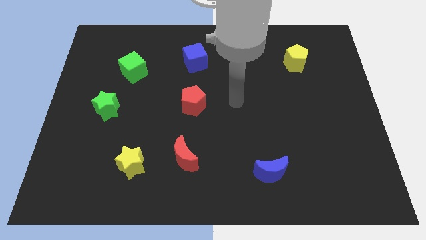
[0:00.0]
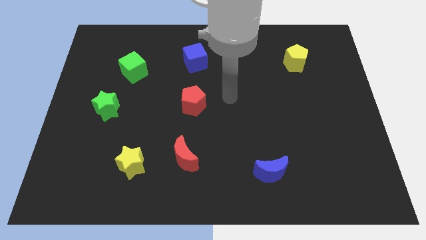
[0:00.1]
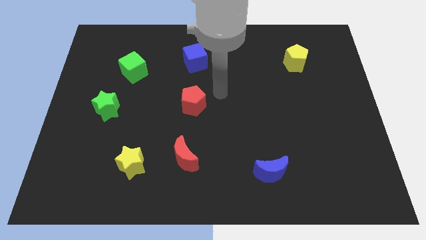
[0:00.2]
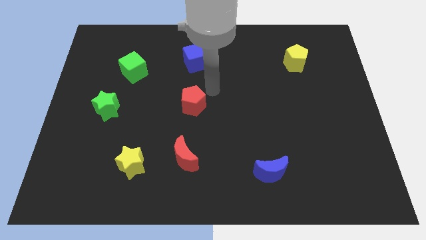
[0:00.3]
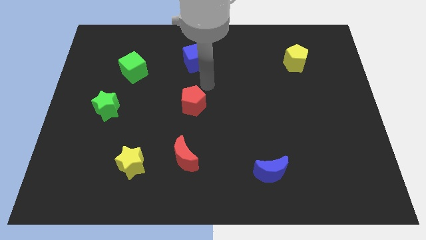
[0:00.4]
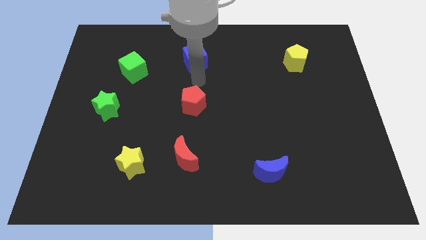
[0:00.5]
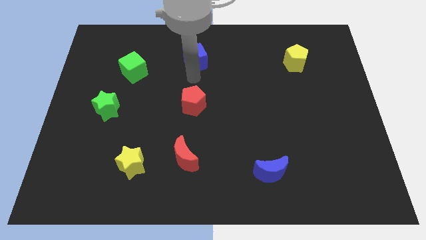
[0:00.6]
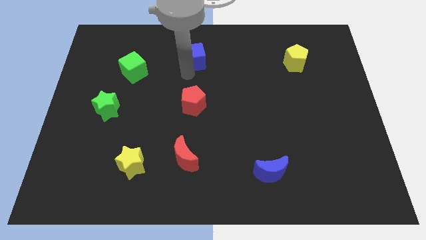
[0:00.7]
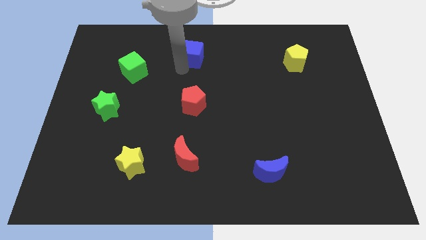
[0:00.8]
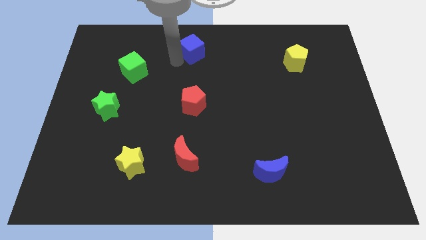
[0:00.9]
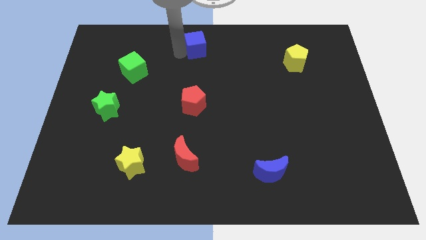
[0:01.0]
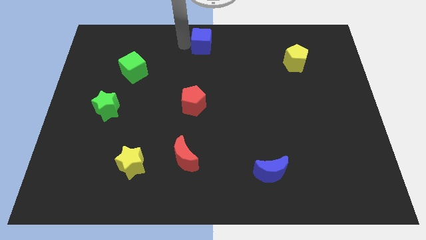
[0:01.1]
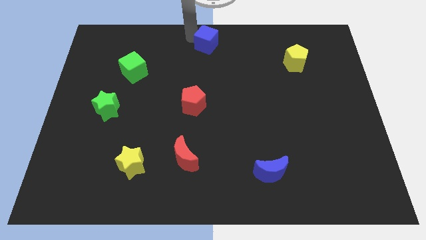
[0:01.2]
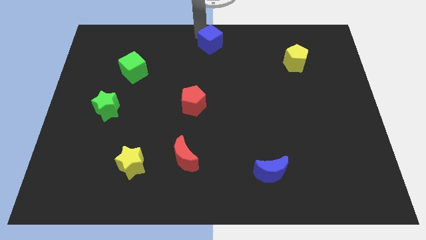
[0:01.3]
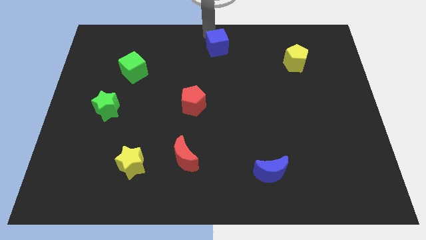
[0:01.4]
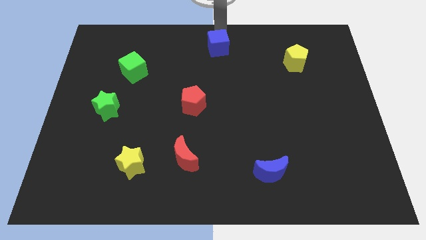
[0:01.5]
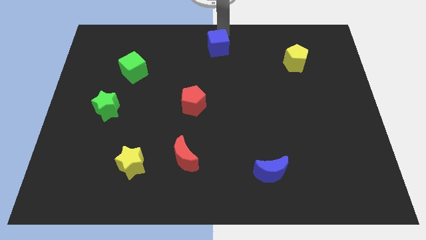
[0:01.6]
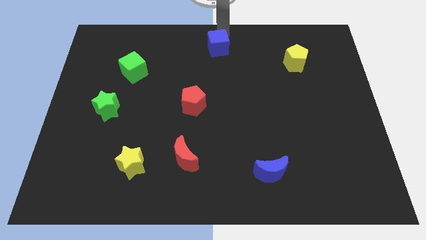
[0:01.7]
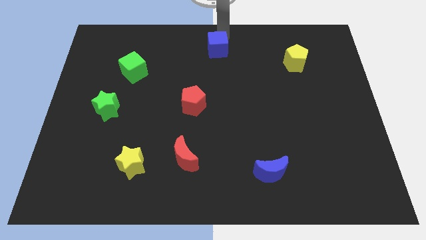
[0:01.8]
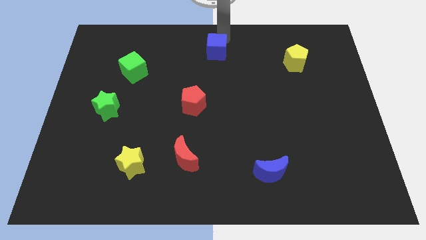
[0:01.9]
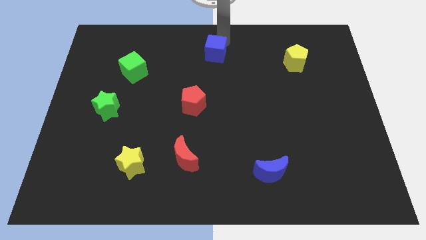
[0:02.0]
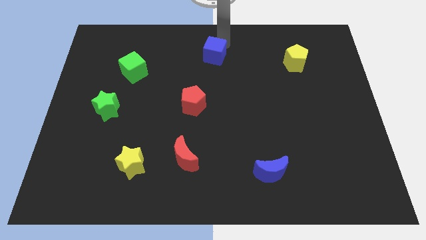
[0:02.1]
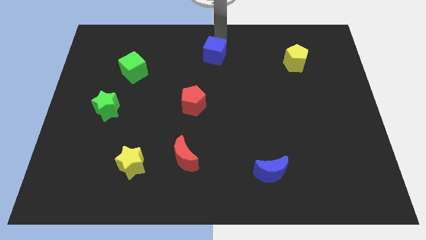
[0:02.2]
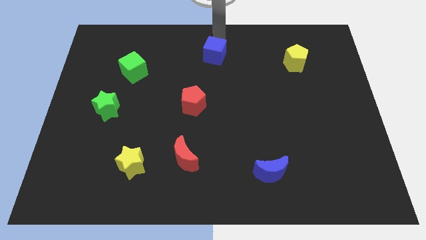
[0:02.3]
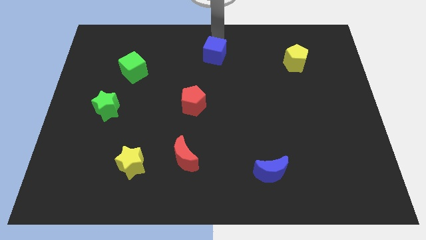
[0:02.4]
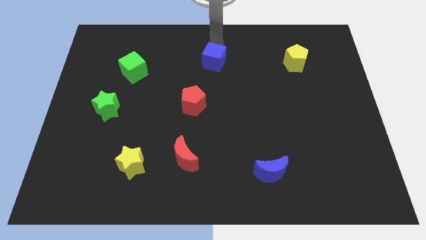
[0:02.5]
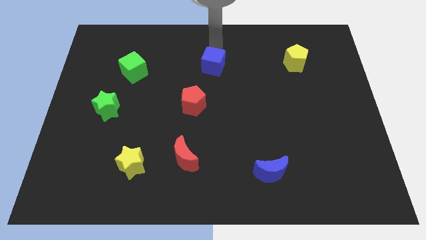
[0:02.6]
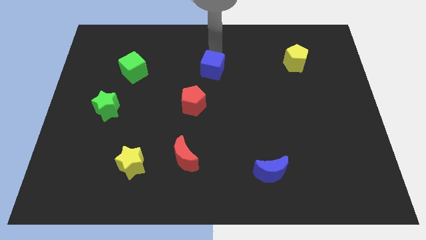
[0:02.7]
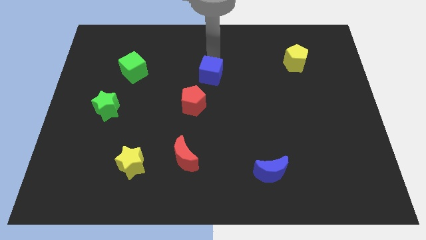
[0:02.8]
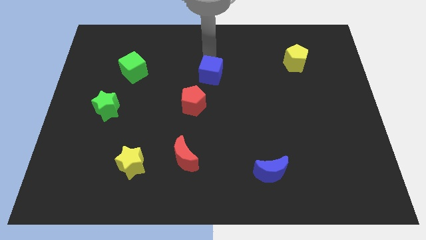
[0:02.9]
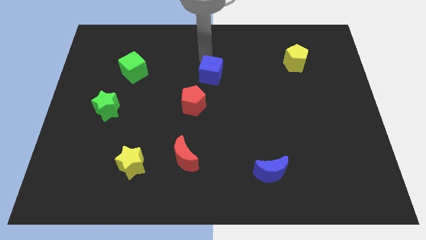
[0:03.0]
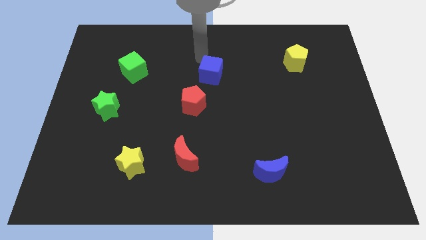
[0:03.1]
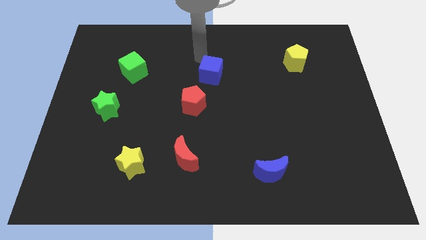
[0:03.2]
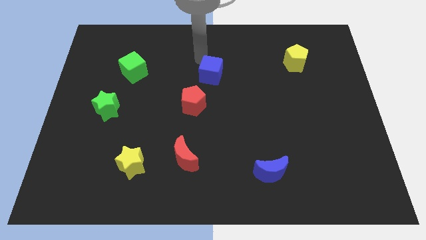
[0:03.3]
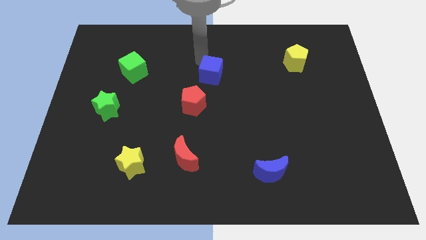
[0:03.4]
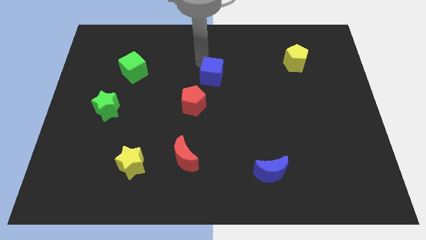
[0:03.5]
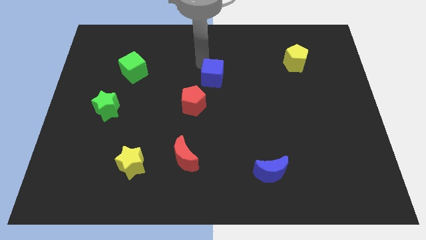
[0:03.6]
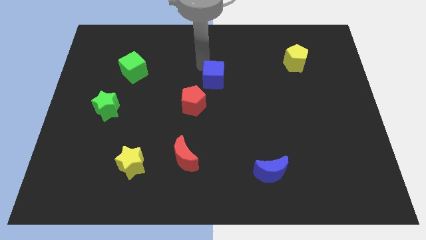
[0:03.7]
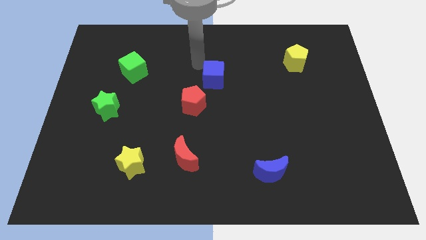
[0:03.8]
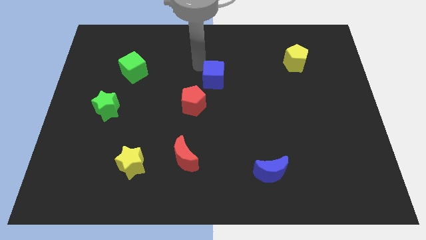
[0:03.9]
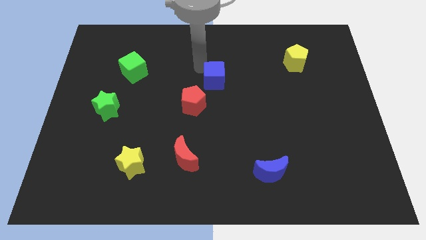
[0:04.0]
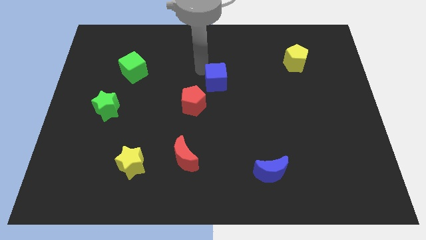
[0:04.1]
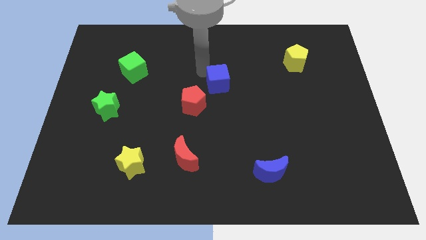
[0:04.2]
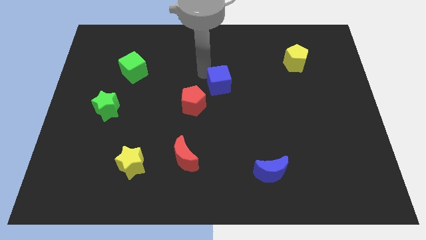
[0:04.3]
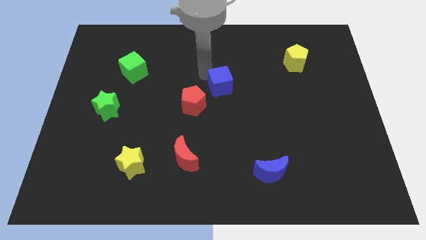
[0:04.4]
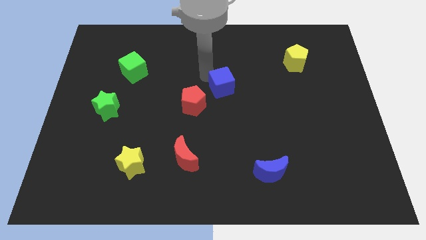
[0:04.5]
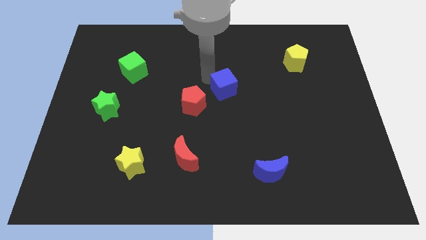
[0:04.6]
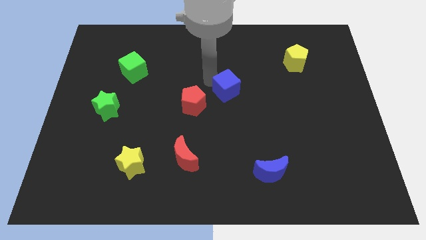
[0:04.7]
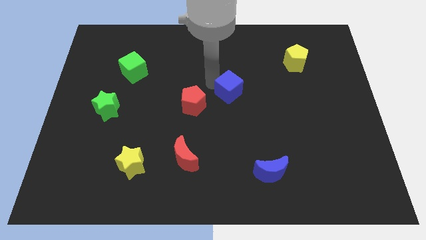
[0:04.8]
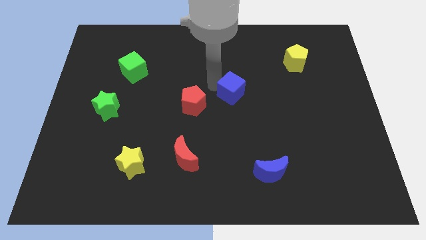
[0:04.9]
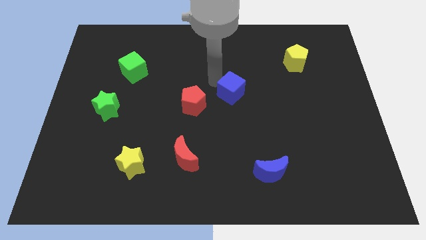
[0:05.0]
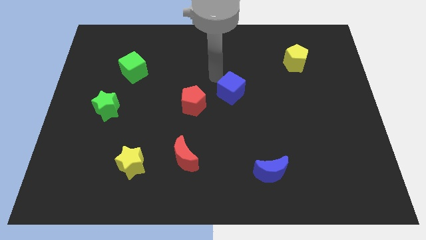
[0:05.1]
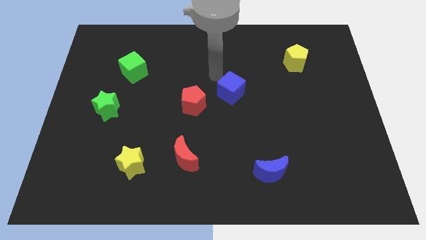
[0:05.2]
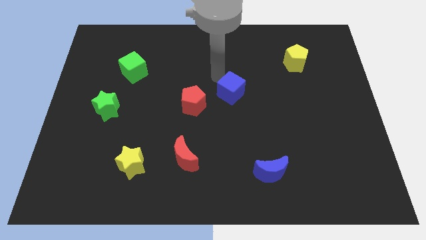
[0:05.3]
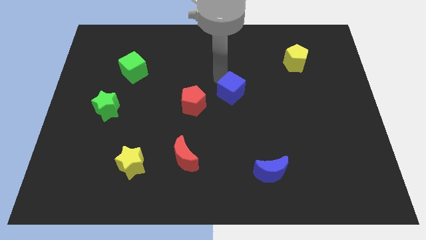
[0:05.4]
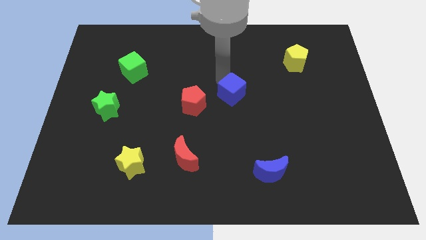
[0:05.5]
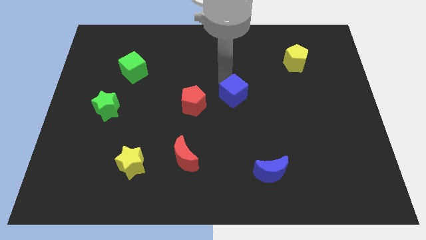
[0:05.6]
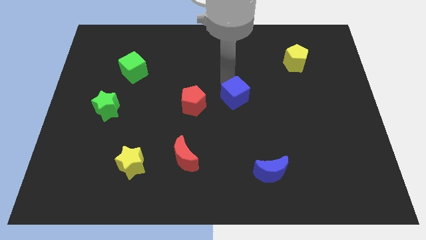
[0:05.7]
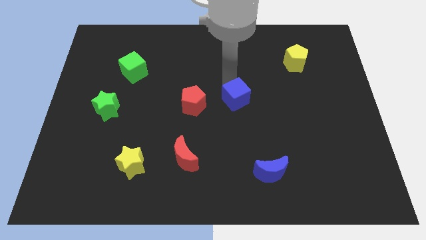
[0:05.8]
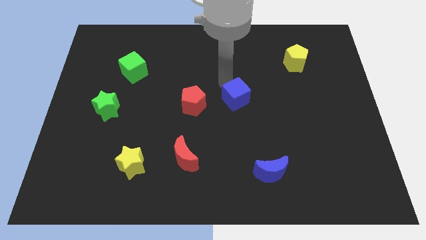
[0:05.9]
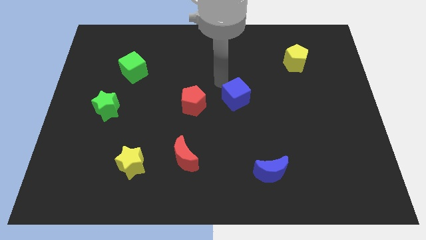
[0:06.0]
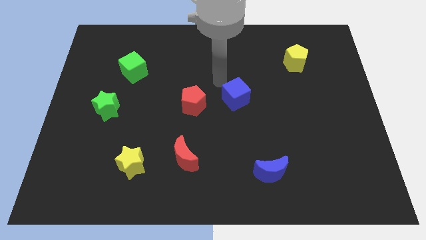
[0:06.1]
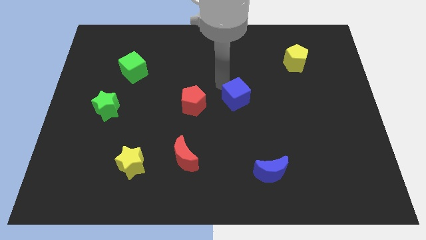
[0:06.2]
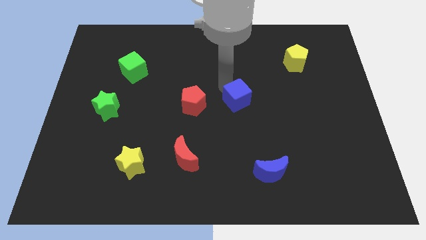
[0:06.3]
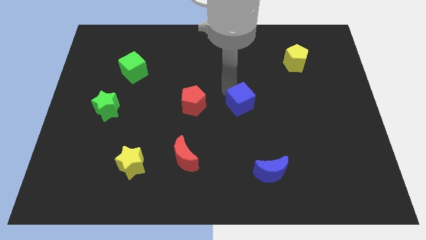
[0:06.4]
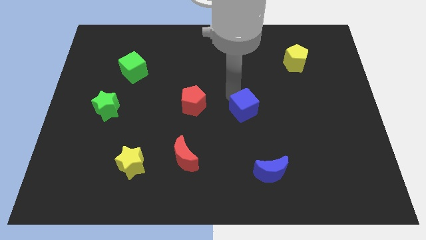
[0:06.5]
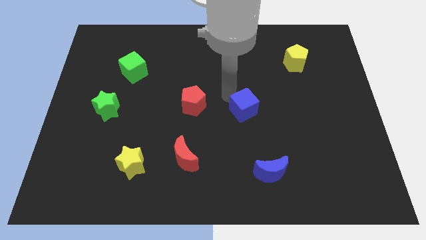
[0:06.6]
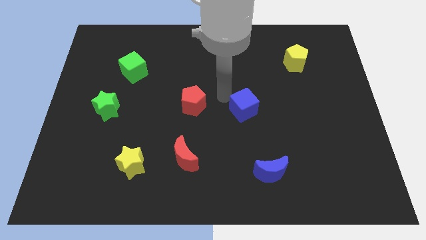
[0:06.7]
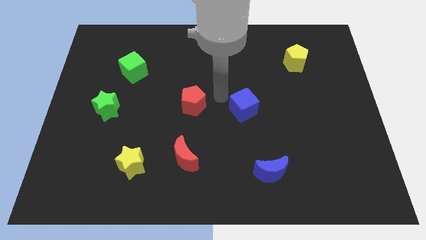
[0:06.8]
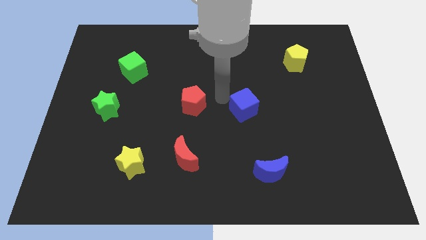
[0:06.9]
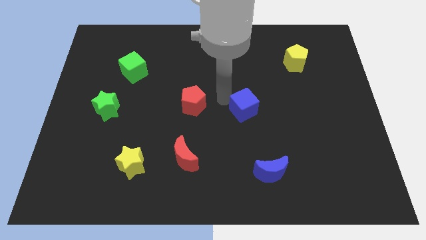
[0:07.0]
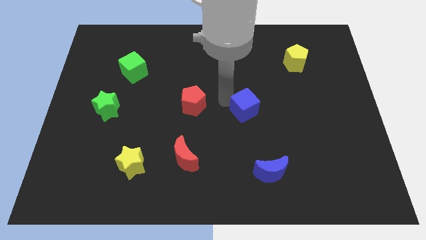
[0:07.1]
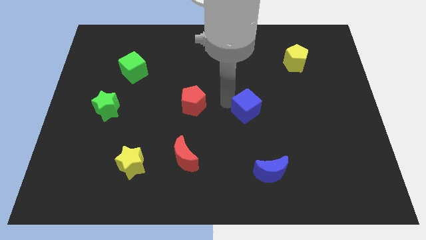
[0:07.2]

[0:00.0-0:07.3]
move the blue cube diagonally down and right

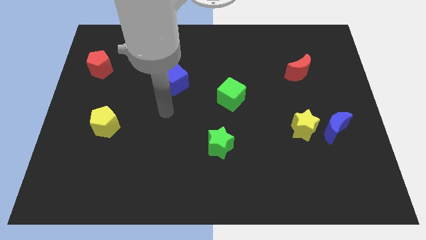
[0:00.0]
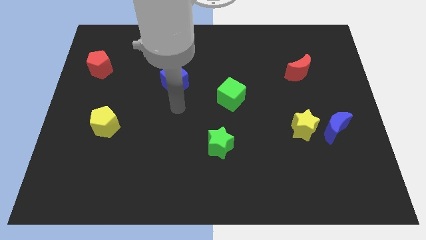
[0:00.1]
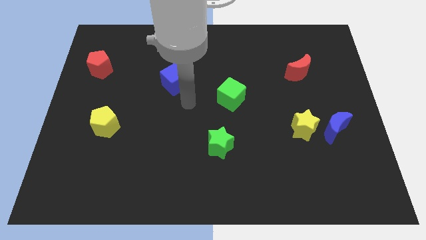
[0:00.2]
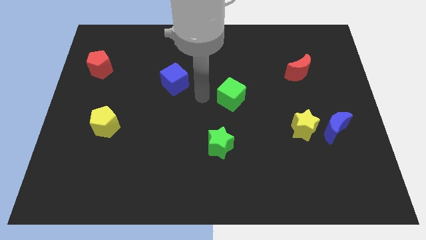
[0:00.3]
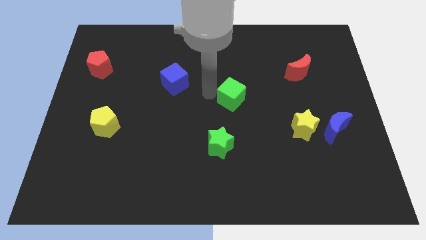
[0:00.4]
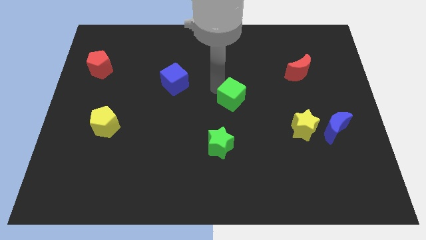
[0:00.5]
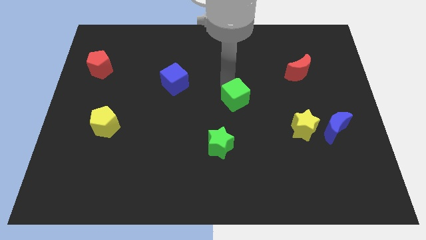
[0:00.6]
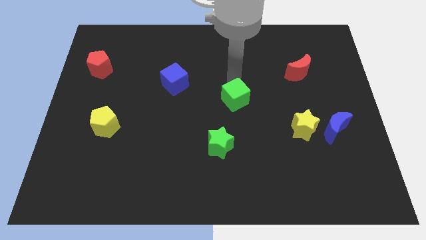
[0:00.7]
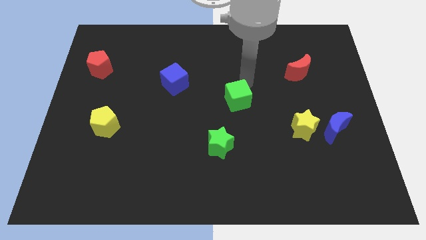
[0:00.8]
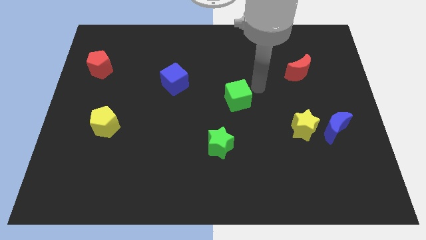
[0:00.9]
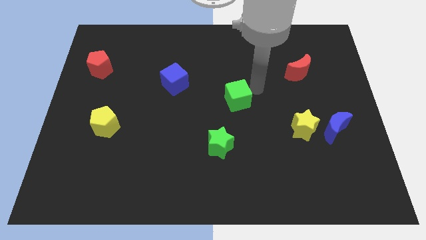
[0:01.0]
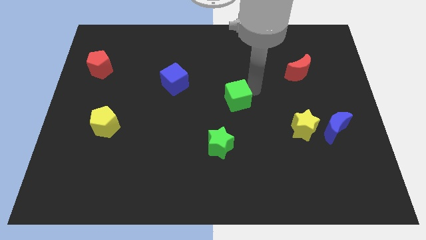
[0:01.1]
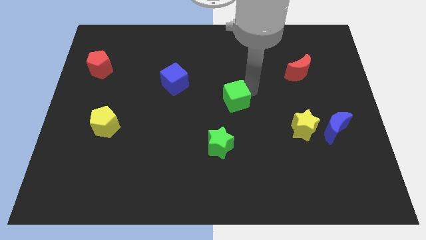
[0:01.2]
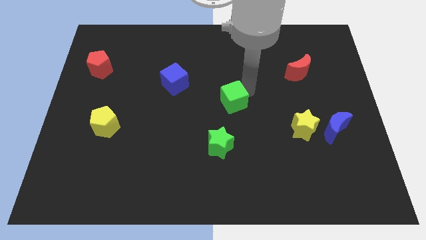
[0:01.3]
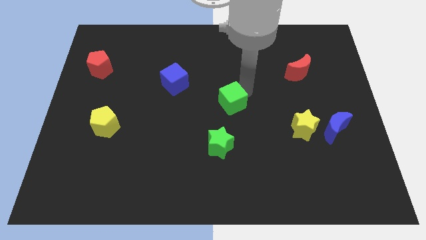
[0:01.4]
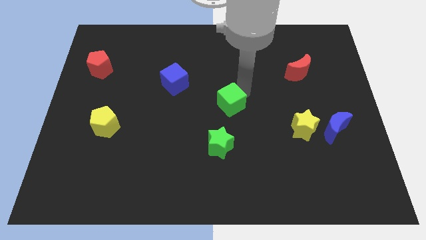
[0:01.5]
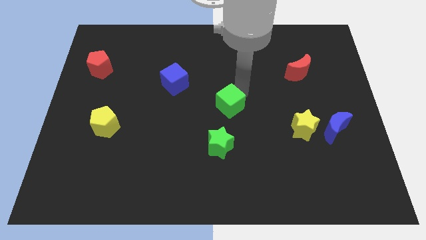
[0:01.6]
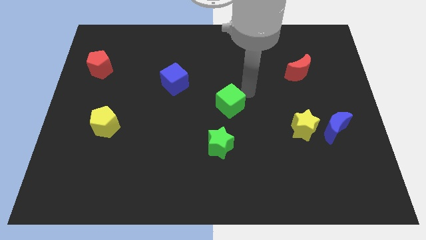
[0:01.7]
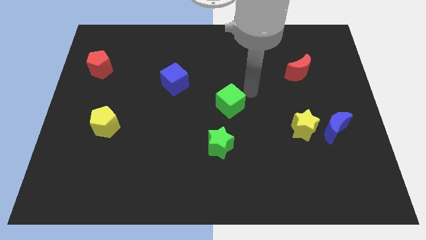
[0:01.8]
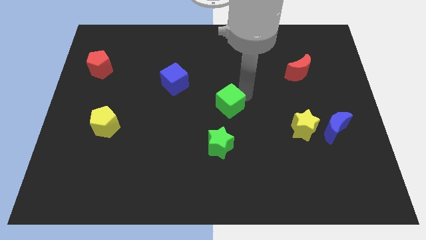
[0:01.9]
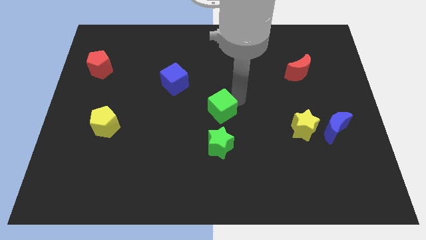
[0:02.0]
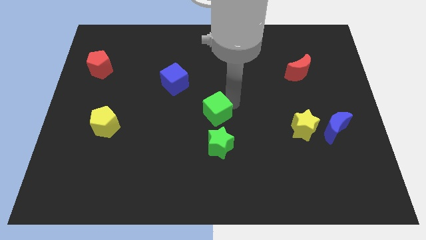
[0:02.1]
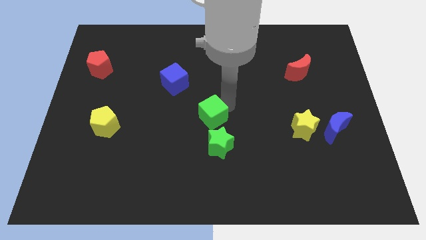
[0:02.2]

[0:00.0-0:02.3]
slightly move the green cube downwards and to the left
